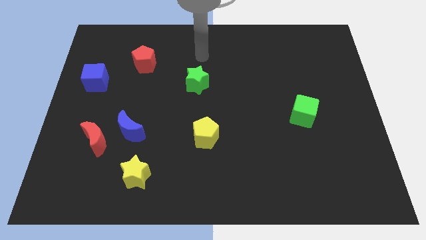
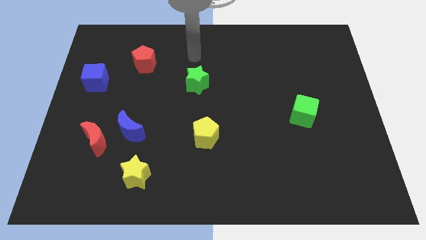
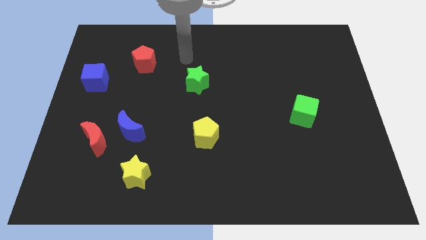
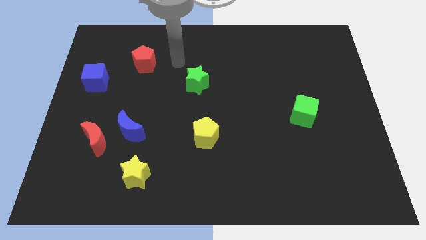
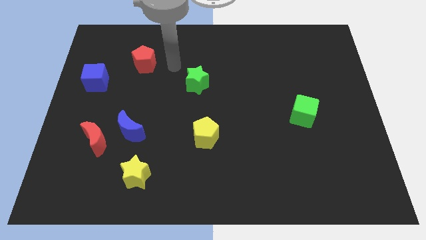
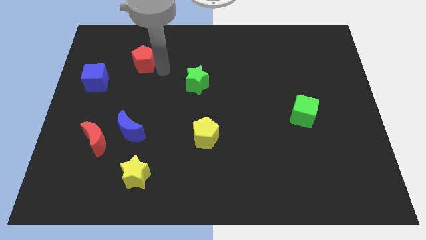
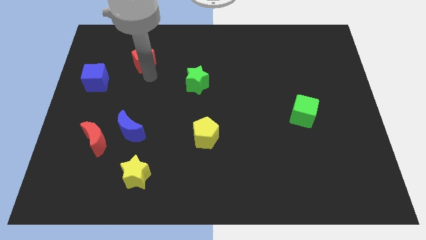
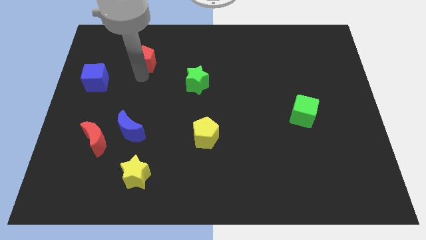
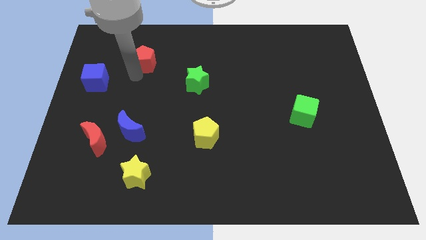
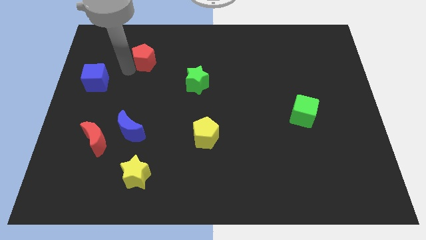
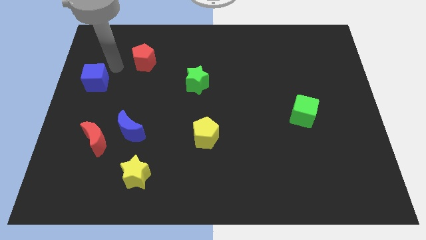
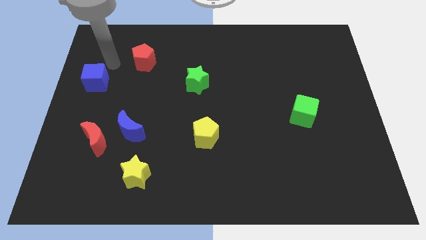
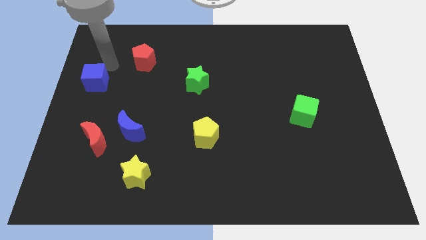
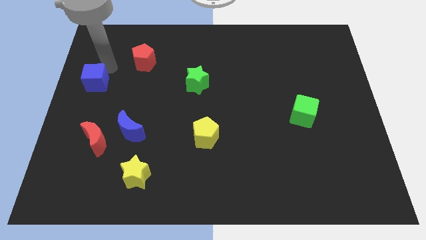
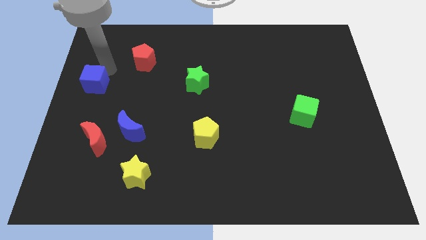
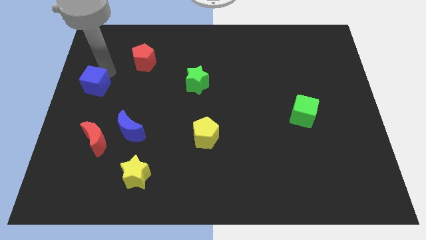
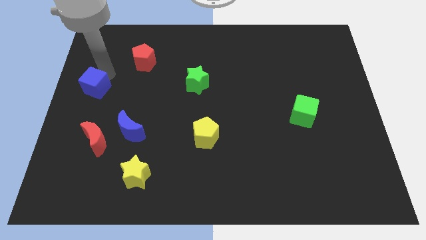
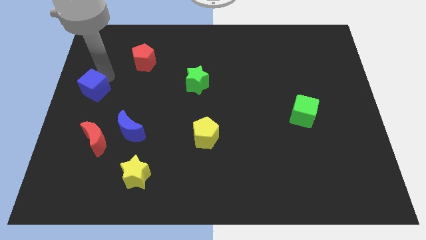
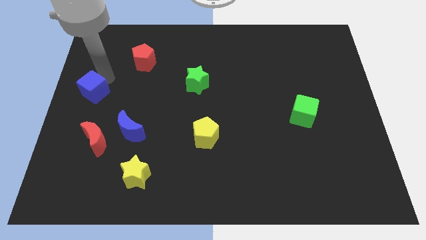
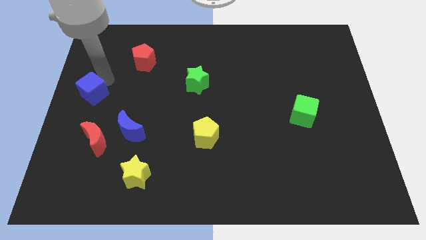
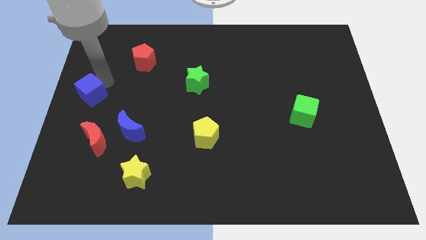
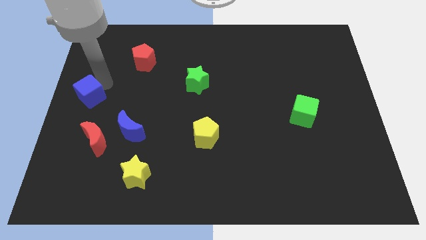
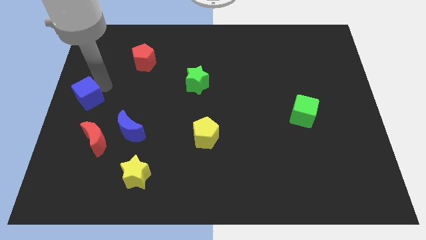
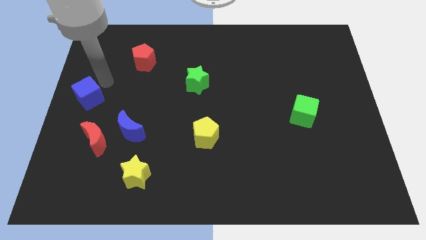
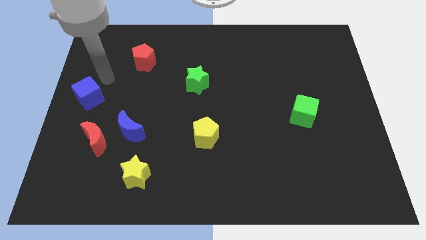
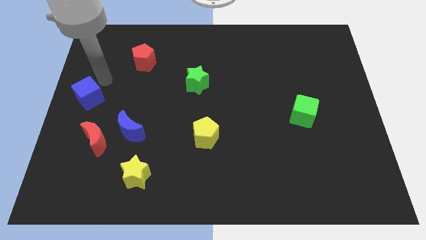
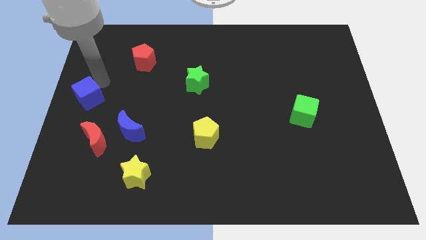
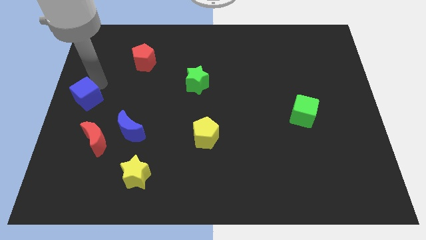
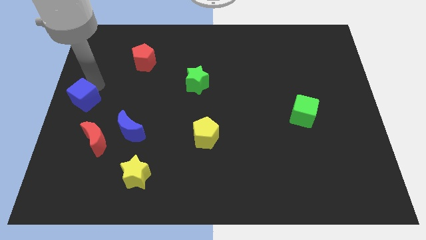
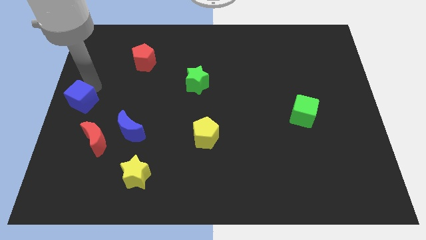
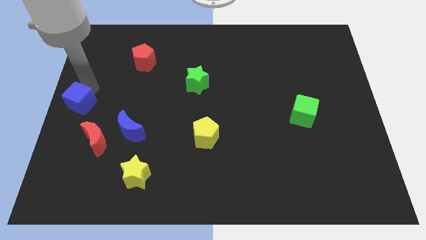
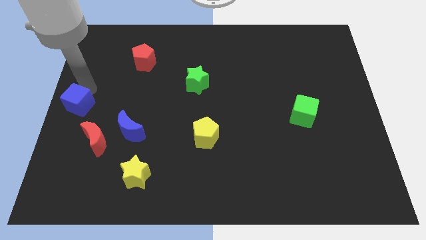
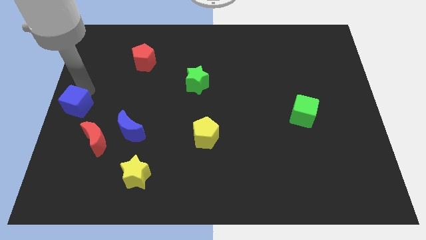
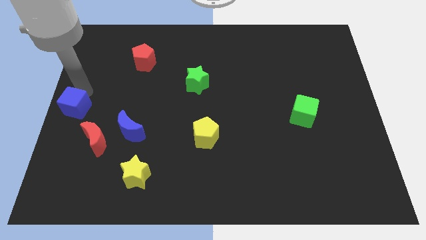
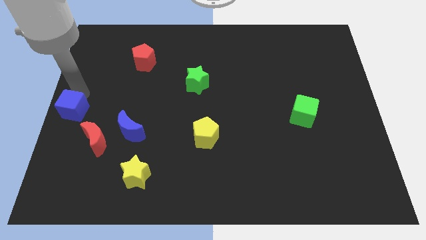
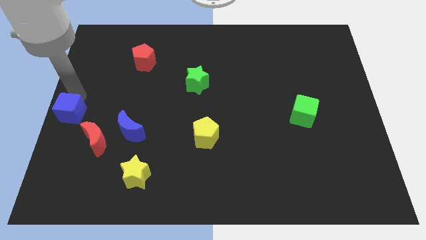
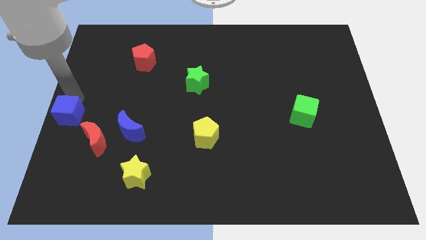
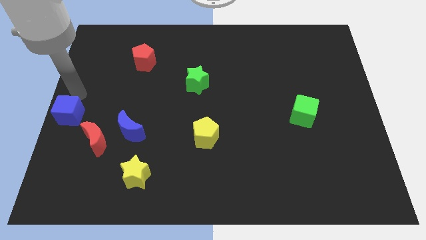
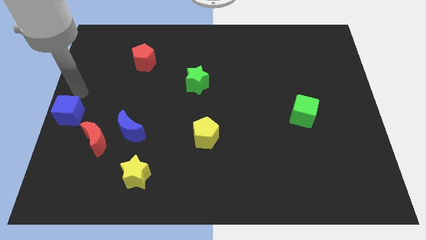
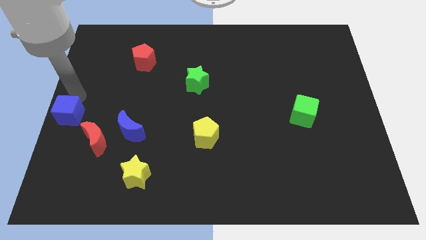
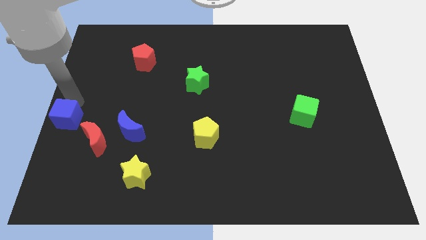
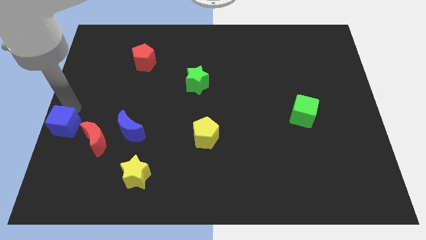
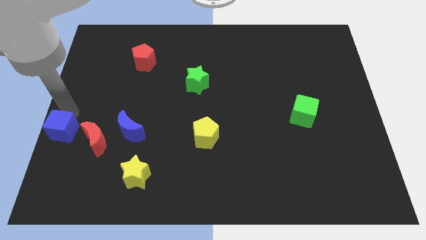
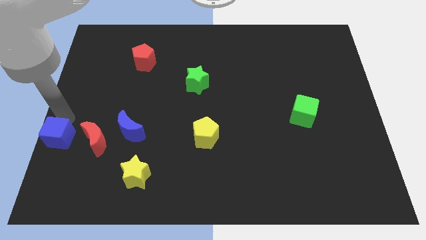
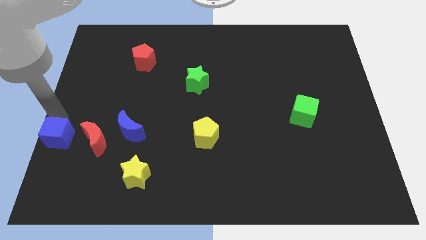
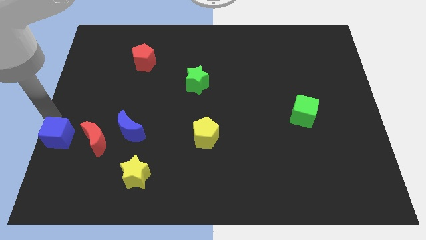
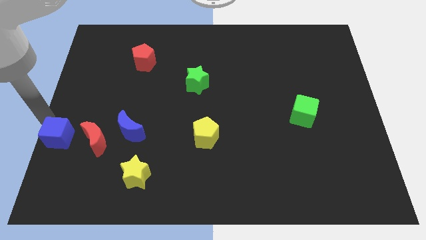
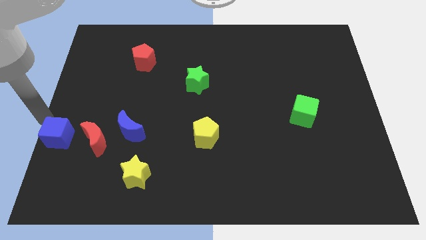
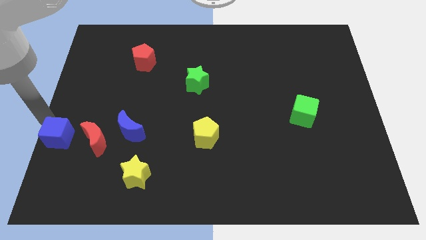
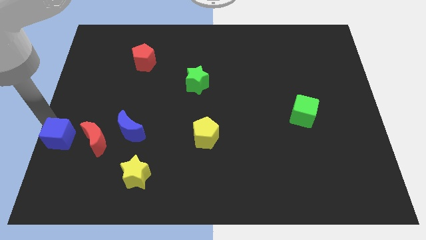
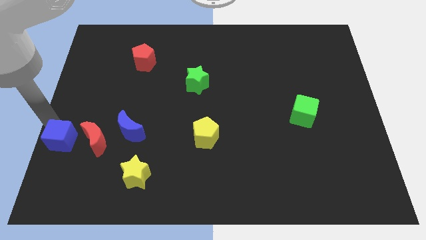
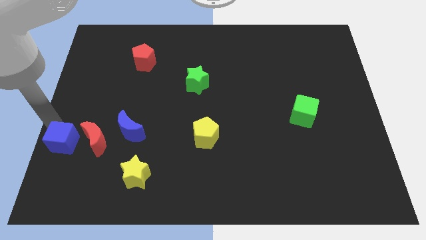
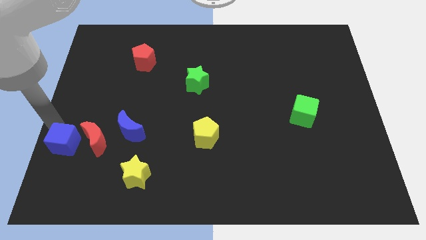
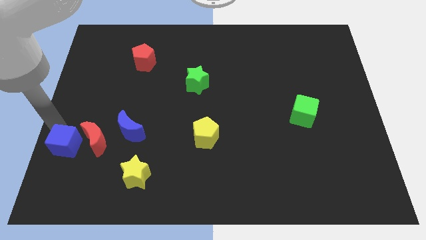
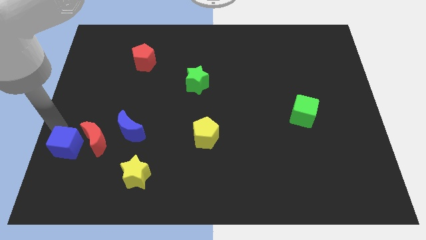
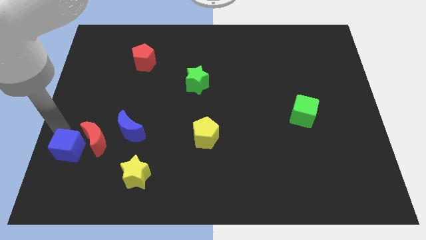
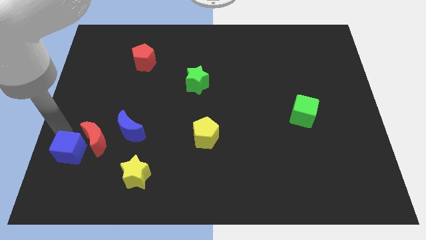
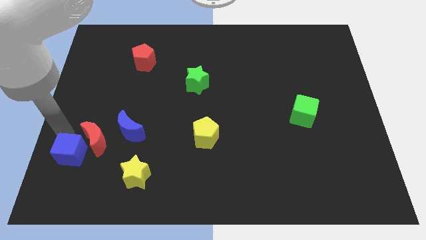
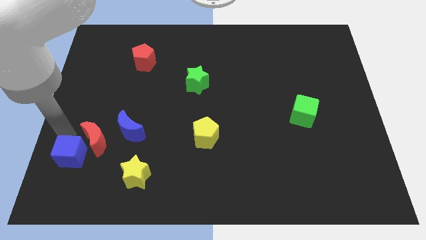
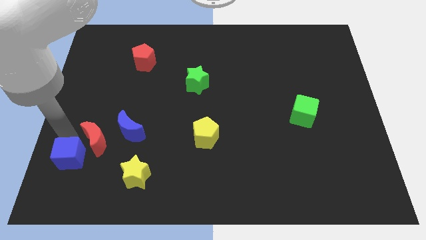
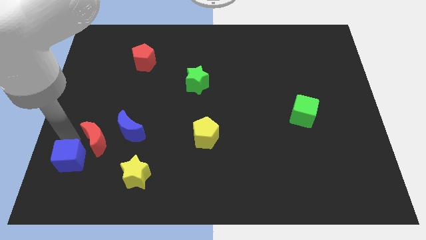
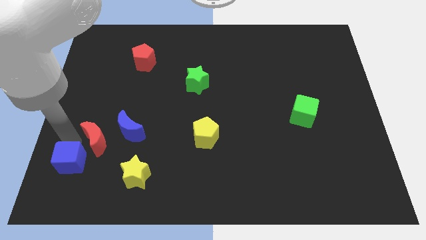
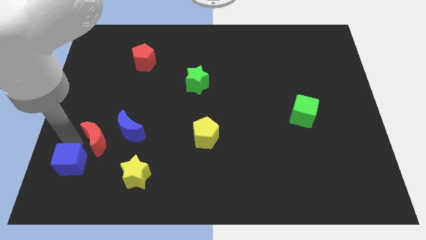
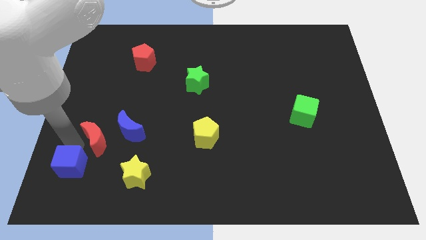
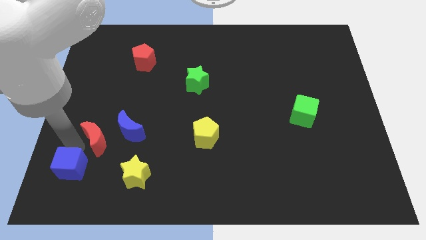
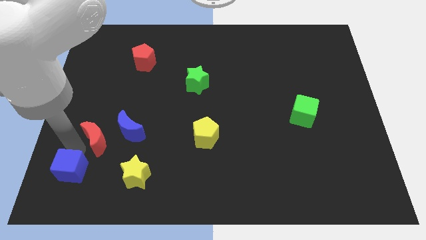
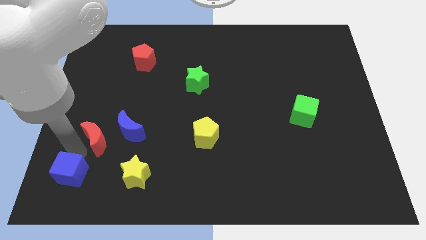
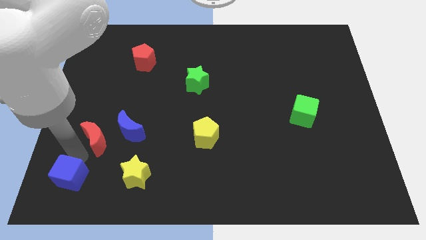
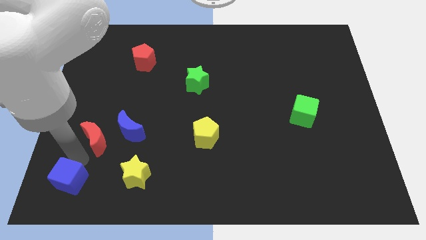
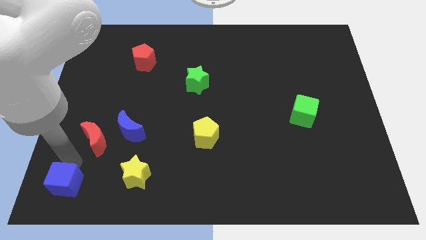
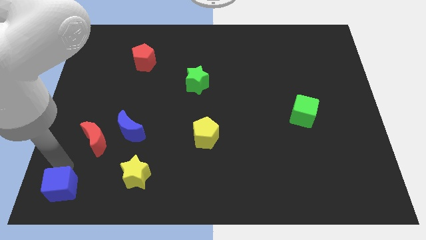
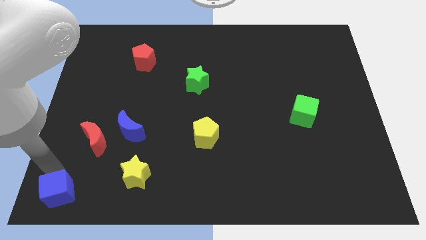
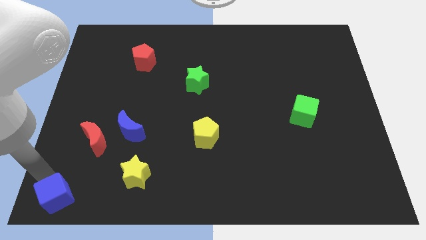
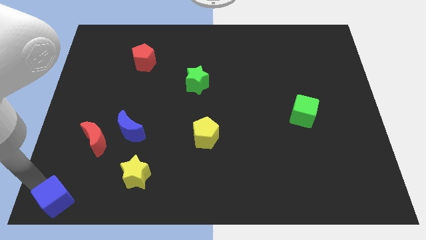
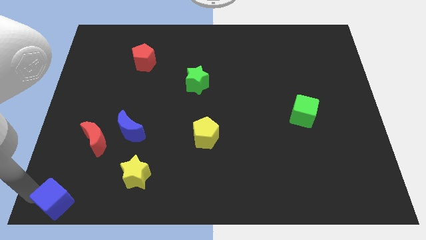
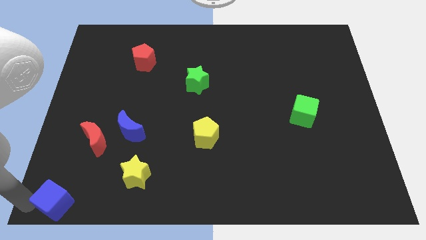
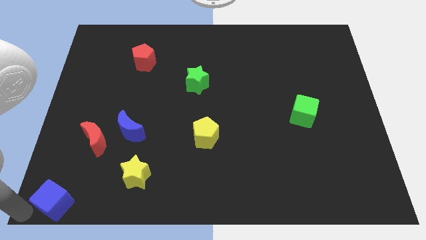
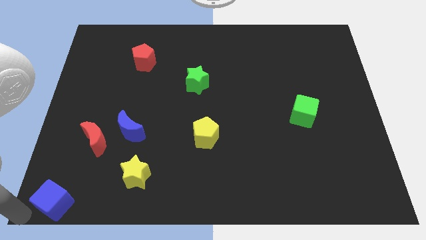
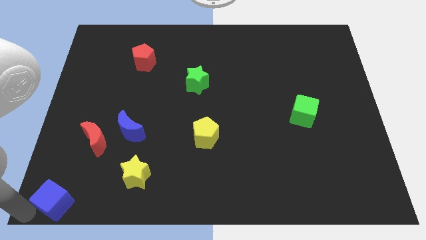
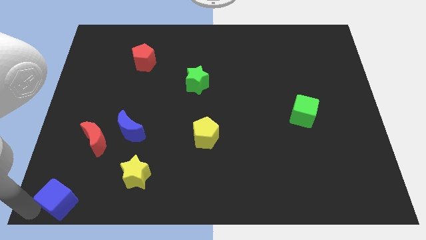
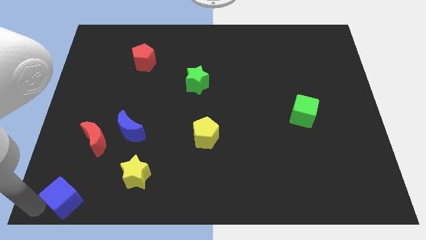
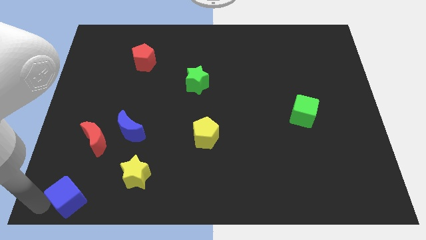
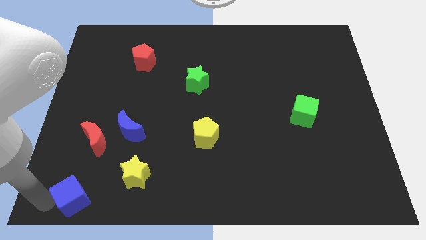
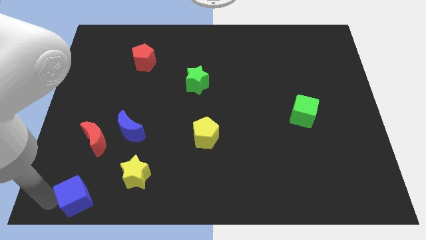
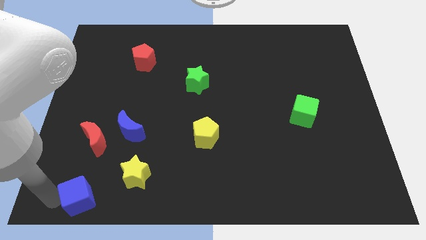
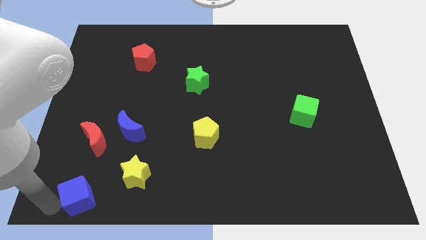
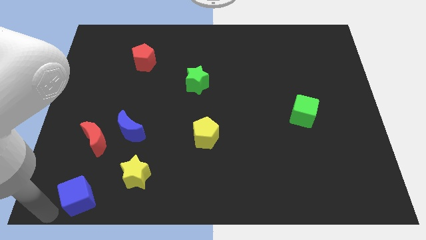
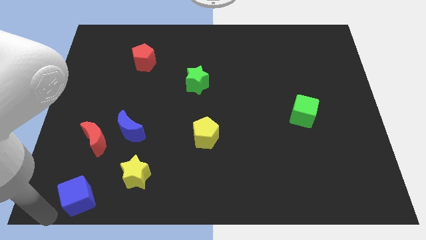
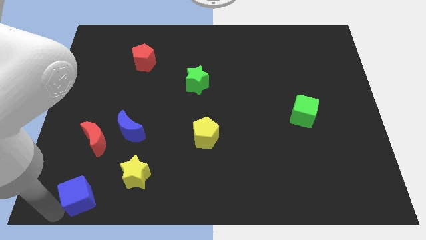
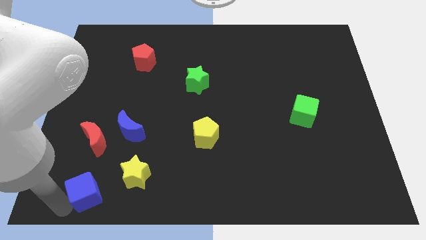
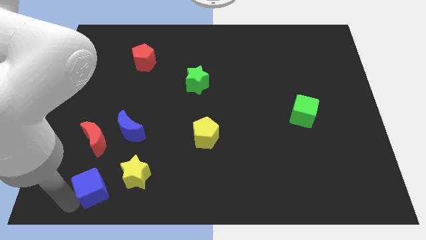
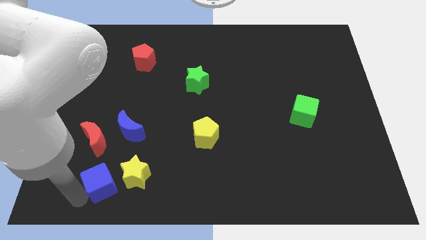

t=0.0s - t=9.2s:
push the blue cube to the bottom of the blue moon
